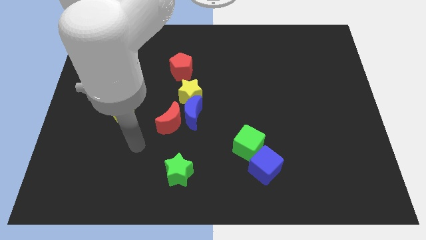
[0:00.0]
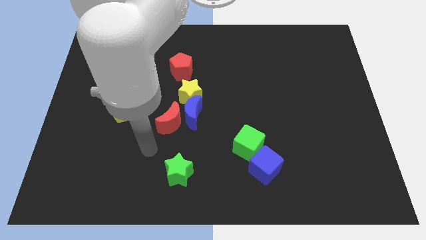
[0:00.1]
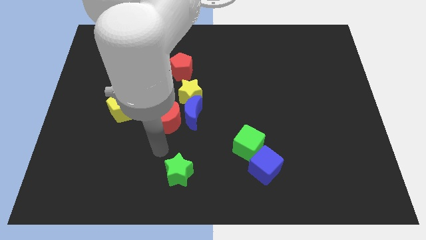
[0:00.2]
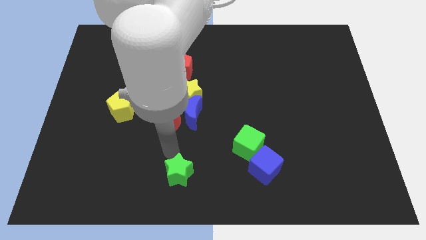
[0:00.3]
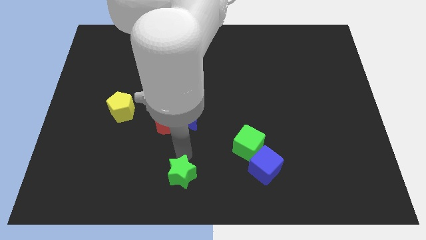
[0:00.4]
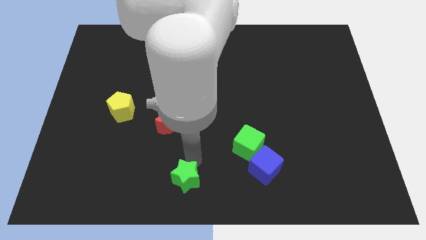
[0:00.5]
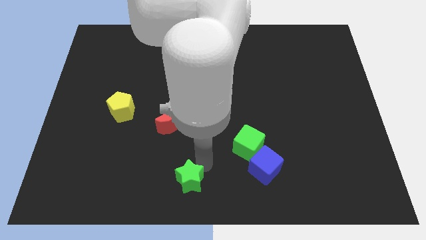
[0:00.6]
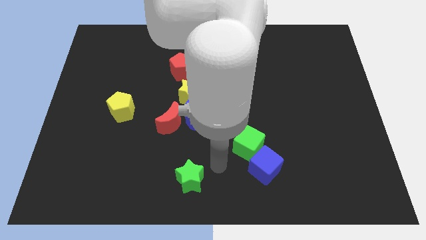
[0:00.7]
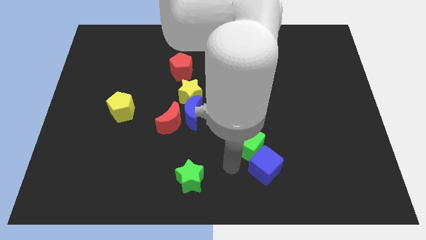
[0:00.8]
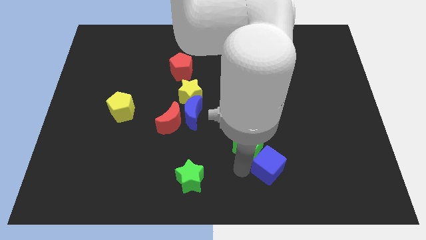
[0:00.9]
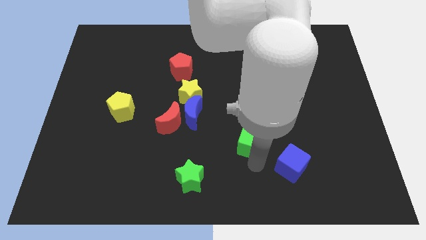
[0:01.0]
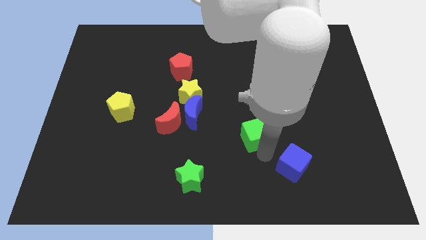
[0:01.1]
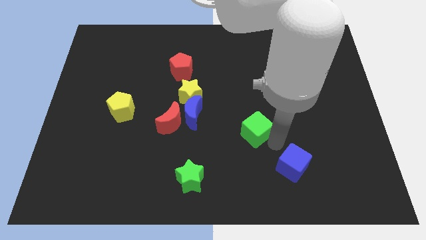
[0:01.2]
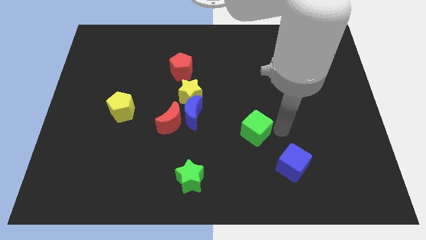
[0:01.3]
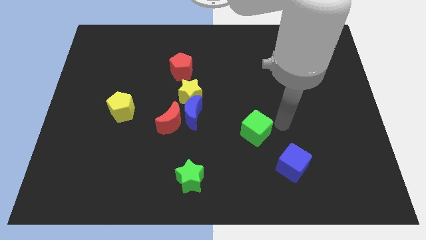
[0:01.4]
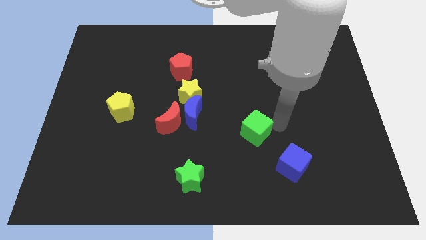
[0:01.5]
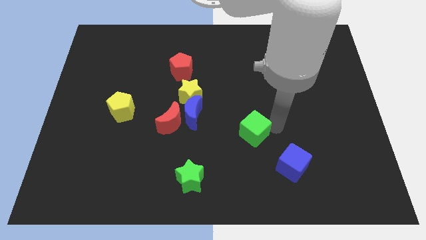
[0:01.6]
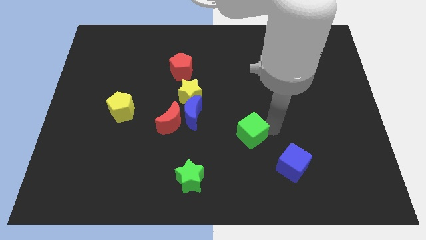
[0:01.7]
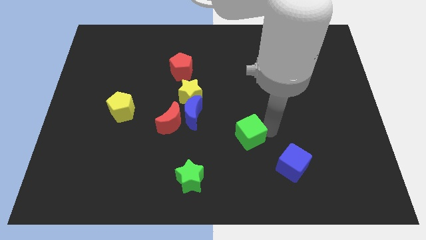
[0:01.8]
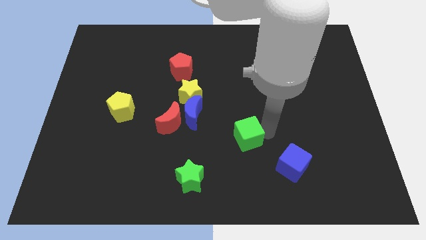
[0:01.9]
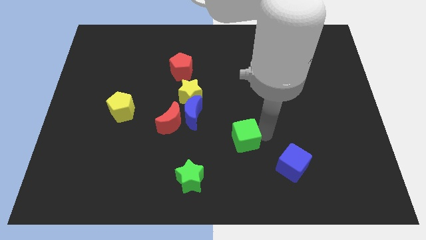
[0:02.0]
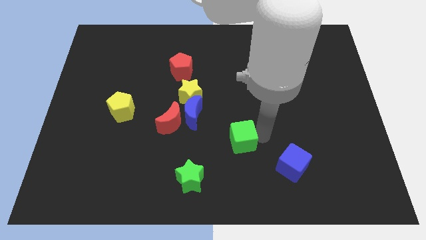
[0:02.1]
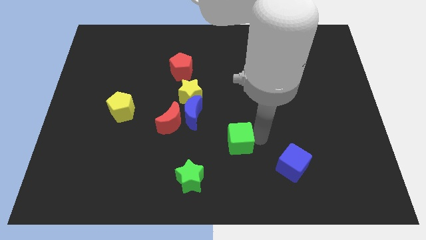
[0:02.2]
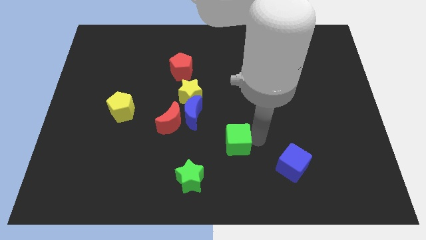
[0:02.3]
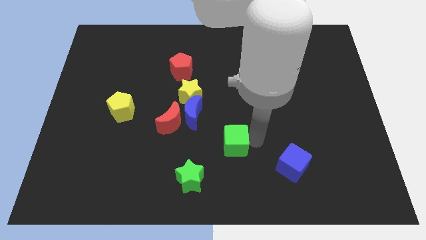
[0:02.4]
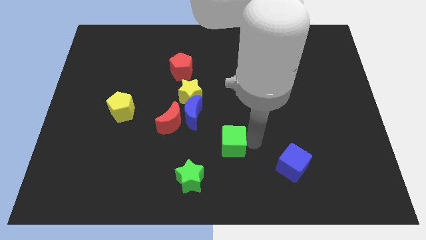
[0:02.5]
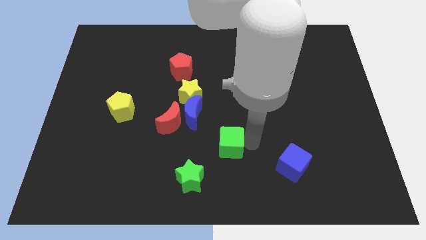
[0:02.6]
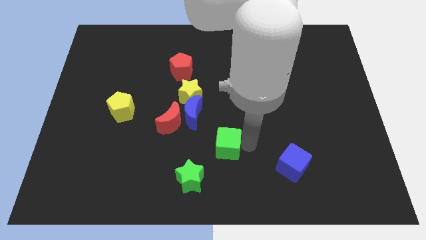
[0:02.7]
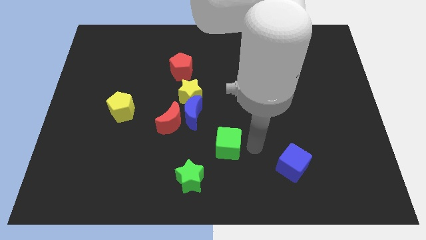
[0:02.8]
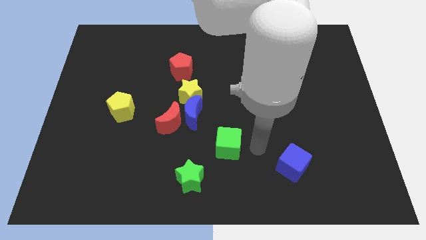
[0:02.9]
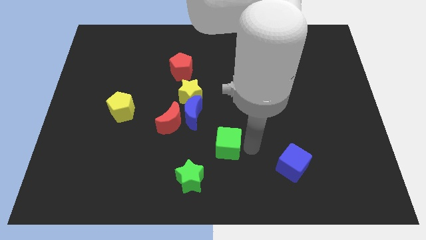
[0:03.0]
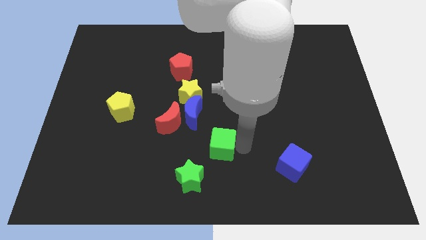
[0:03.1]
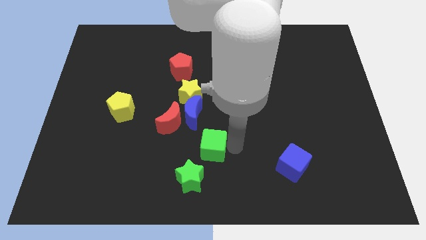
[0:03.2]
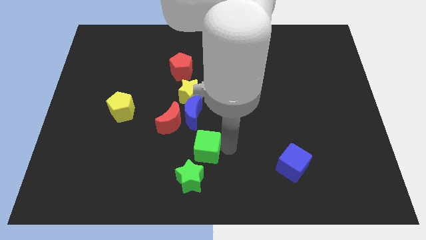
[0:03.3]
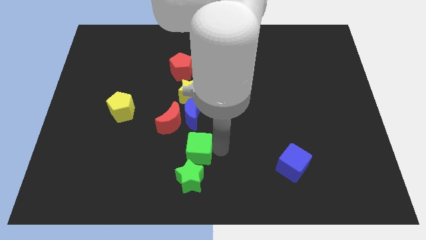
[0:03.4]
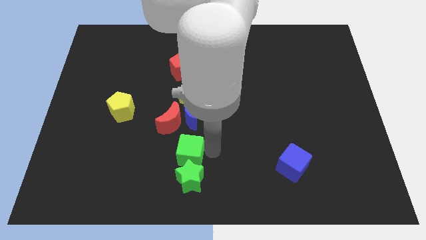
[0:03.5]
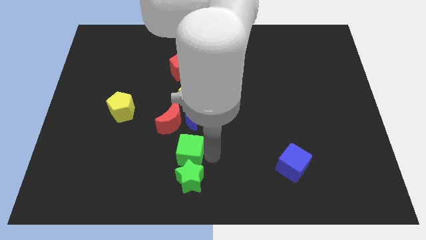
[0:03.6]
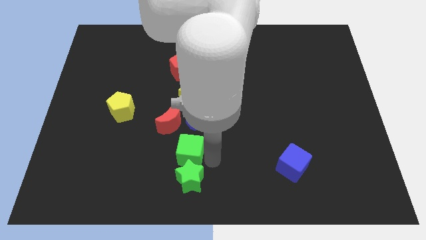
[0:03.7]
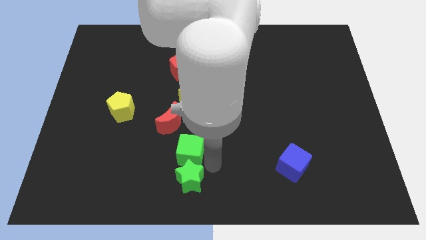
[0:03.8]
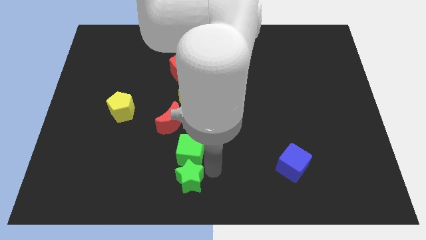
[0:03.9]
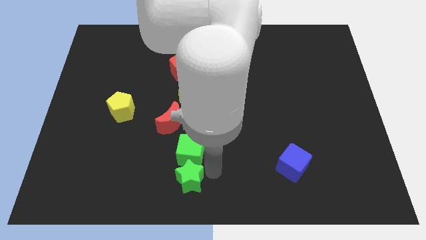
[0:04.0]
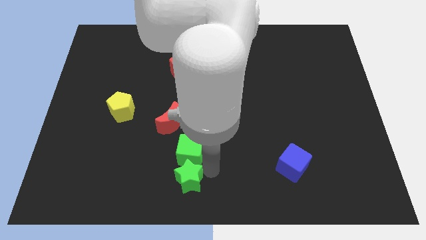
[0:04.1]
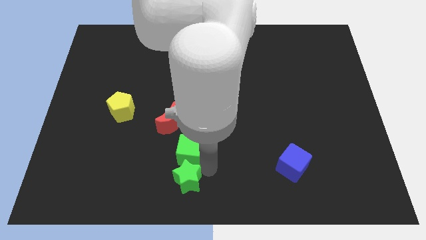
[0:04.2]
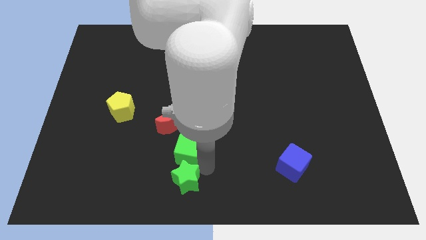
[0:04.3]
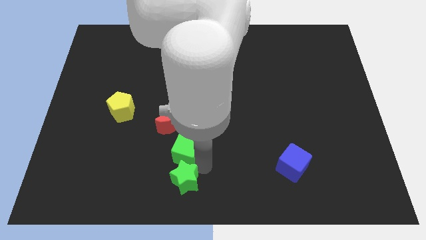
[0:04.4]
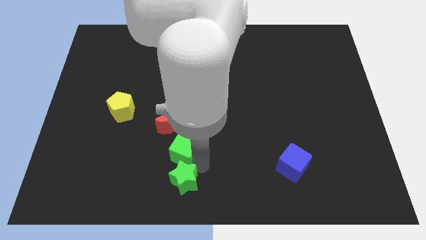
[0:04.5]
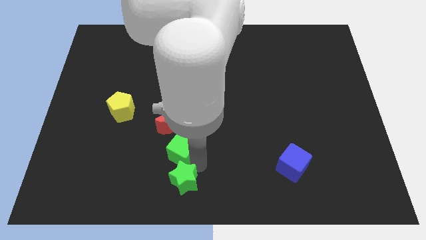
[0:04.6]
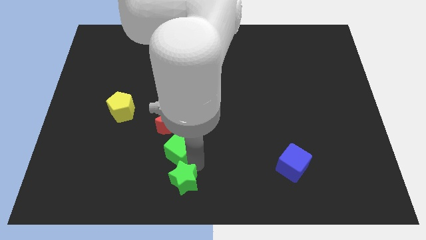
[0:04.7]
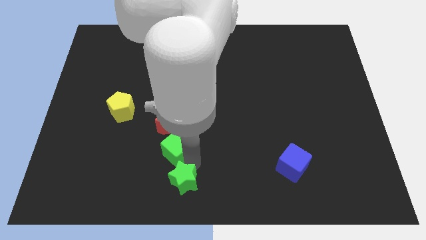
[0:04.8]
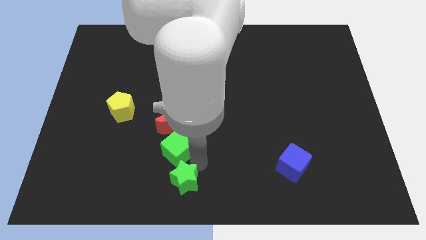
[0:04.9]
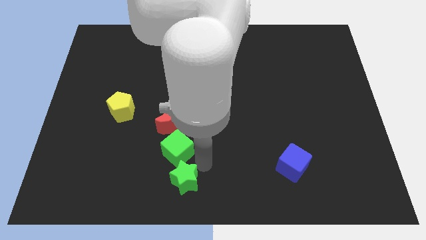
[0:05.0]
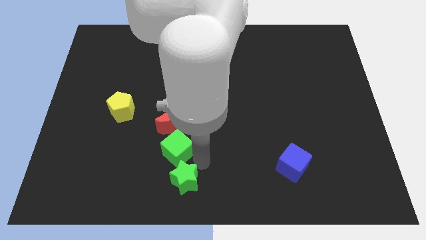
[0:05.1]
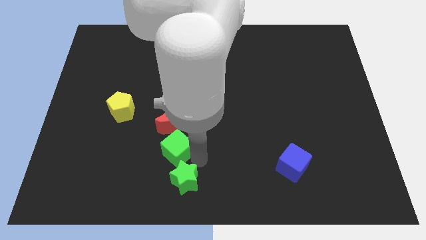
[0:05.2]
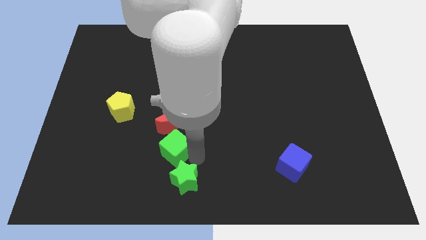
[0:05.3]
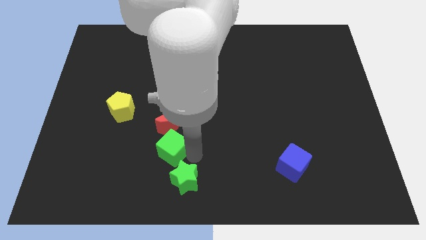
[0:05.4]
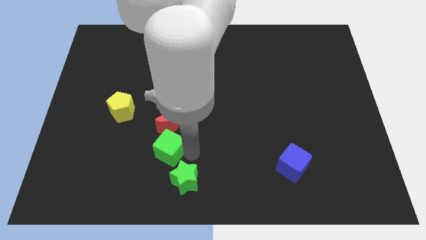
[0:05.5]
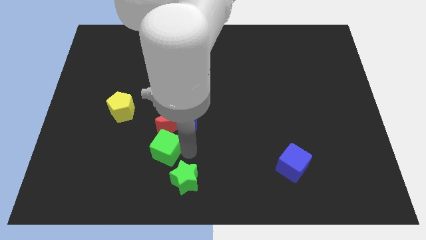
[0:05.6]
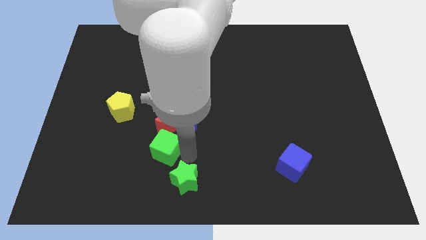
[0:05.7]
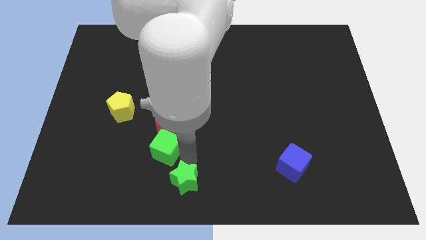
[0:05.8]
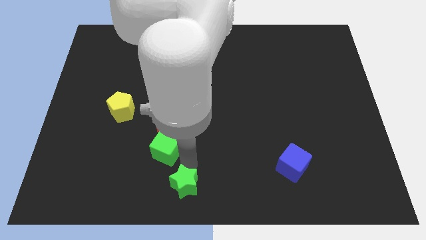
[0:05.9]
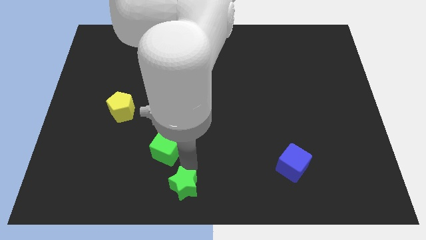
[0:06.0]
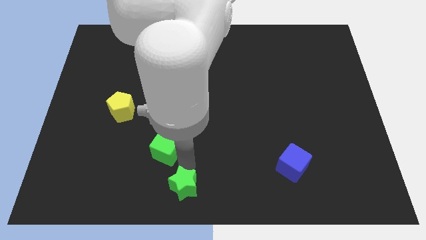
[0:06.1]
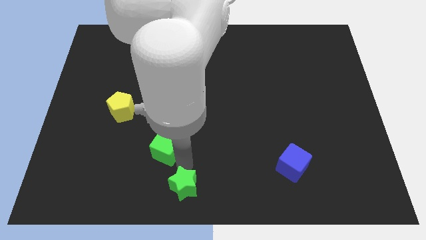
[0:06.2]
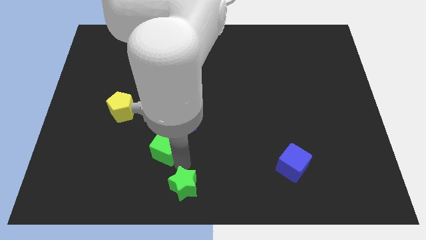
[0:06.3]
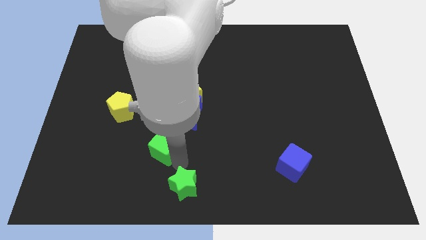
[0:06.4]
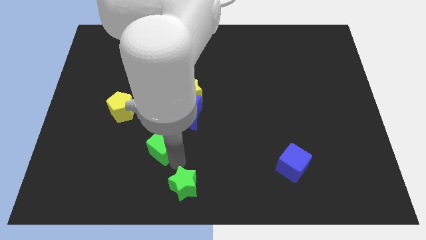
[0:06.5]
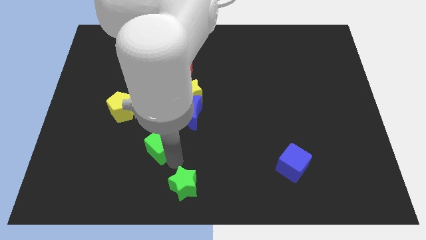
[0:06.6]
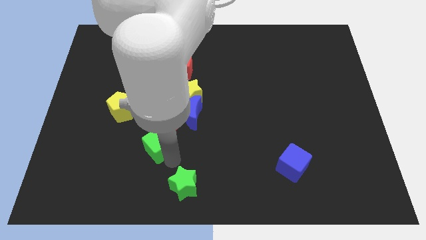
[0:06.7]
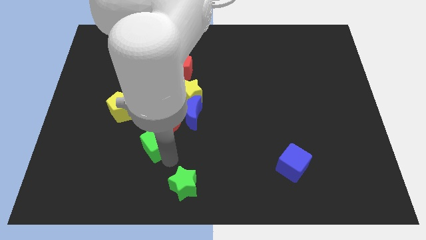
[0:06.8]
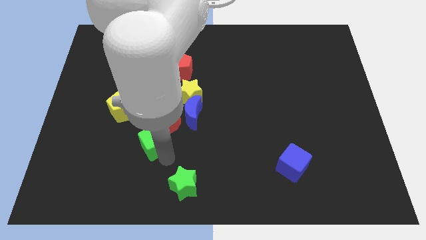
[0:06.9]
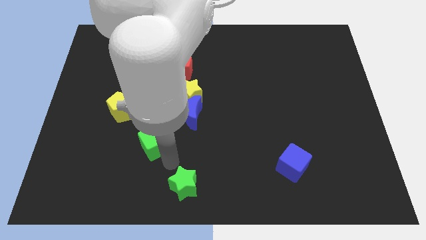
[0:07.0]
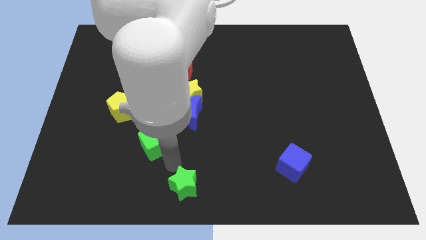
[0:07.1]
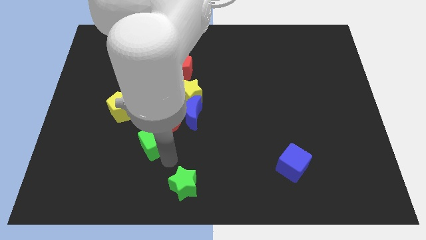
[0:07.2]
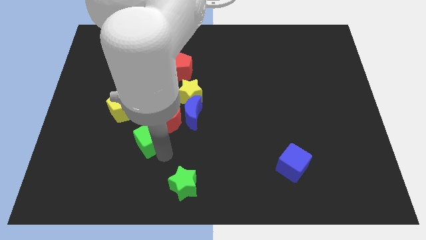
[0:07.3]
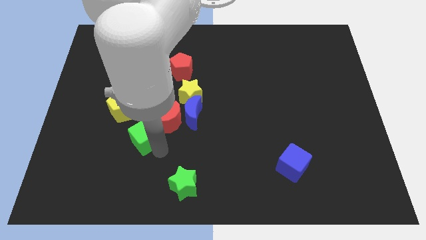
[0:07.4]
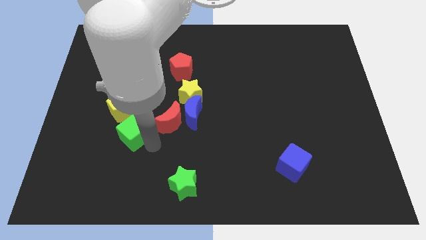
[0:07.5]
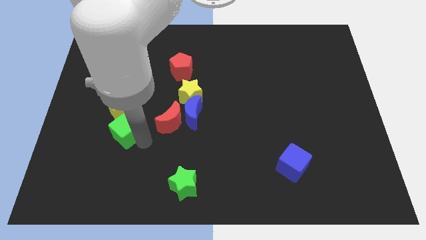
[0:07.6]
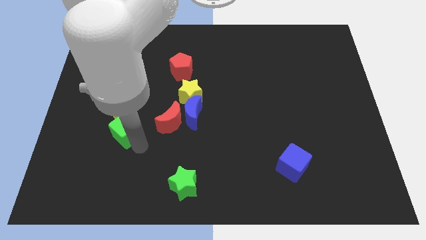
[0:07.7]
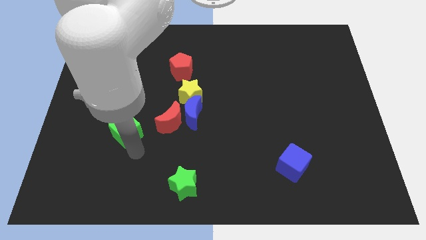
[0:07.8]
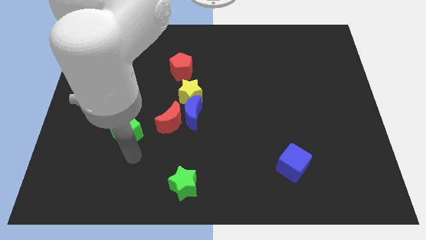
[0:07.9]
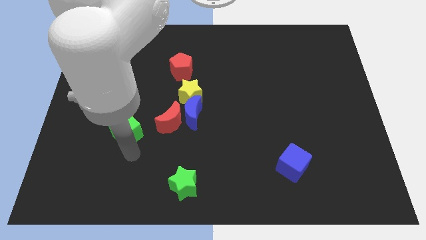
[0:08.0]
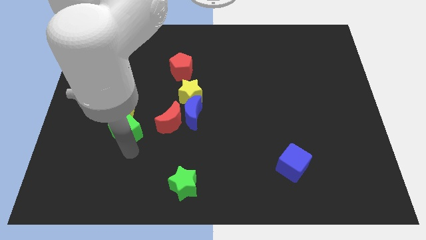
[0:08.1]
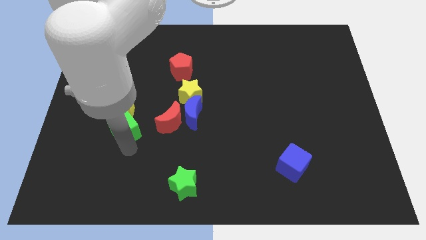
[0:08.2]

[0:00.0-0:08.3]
put the green cube to the yellow pentagon

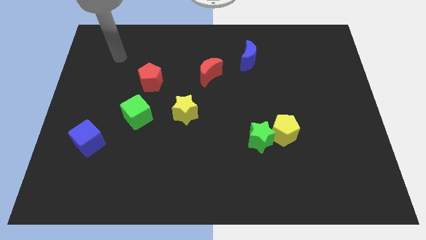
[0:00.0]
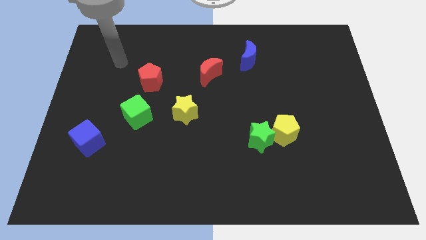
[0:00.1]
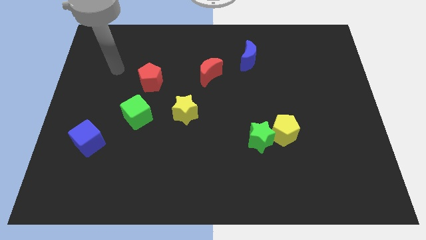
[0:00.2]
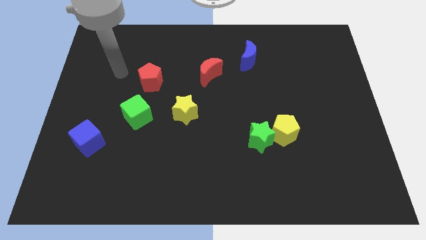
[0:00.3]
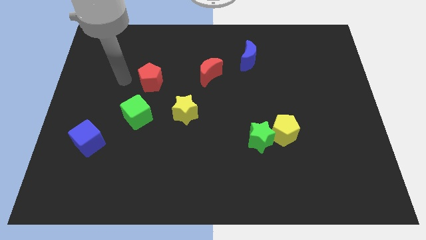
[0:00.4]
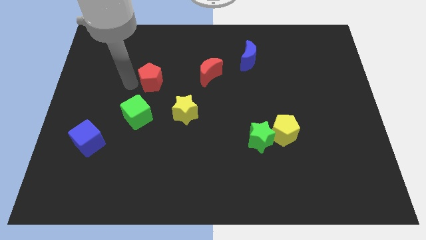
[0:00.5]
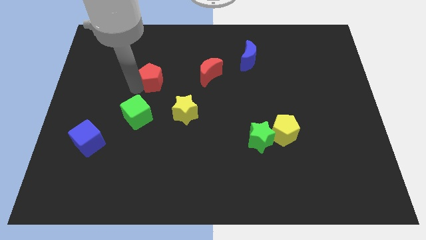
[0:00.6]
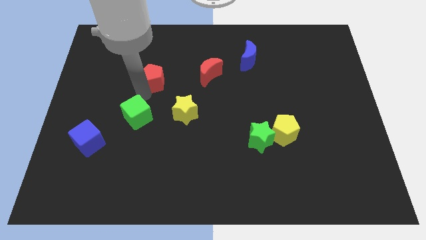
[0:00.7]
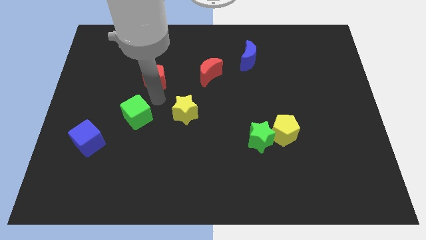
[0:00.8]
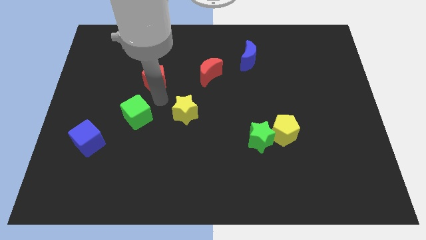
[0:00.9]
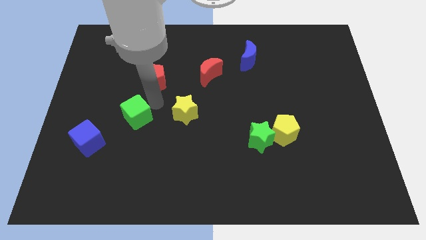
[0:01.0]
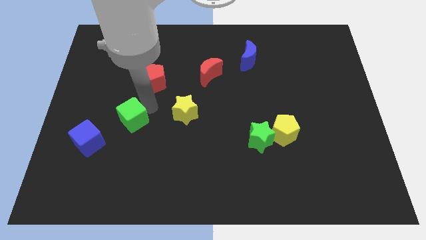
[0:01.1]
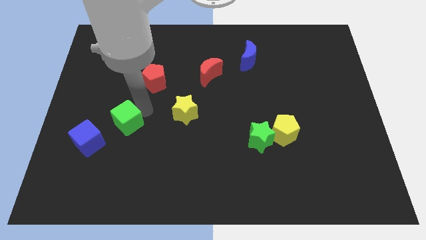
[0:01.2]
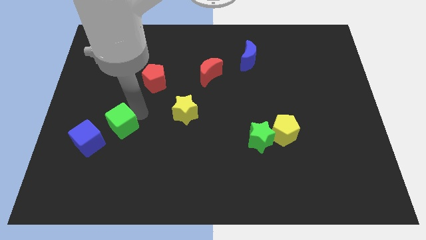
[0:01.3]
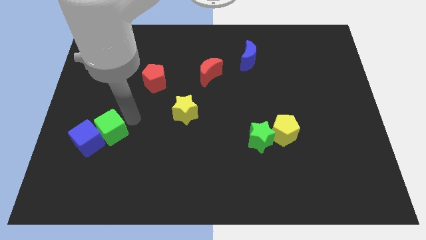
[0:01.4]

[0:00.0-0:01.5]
push the green cube towards the blue cube
